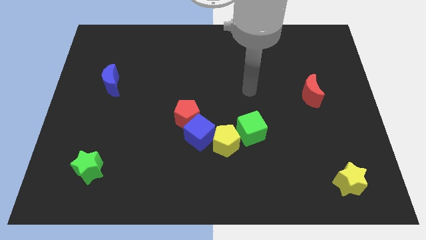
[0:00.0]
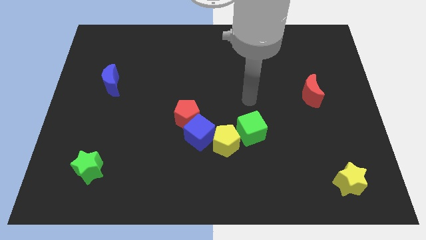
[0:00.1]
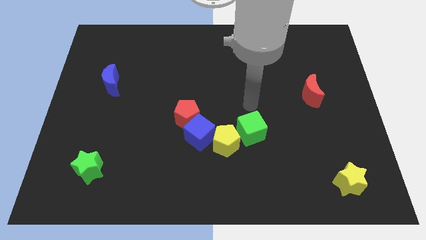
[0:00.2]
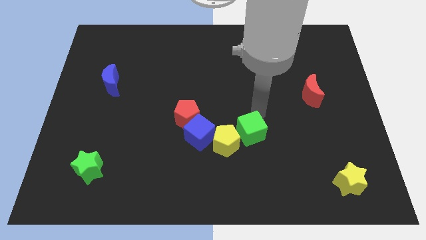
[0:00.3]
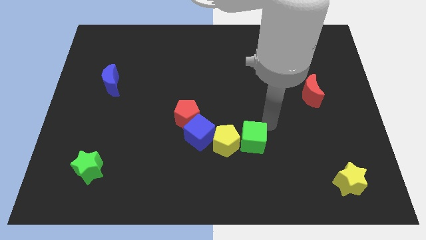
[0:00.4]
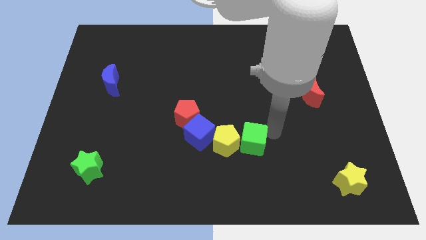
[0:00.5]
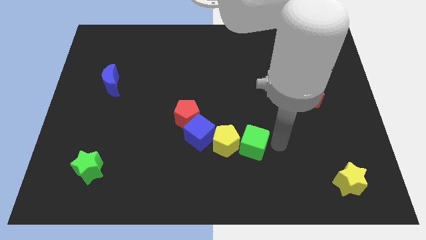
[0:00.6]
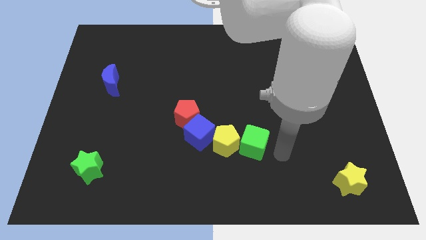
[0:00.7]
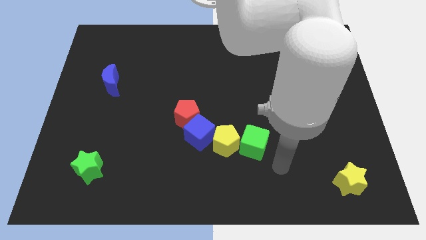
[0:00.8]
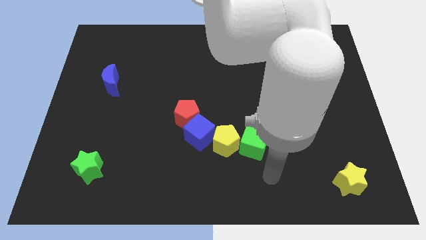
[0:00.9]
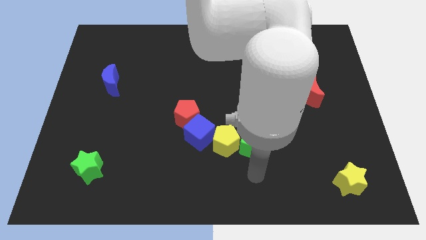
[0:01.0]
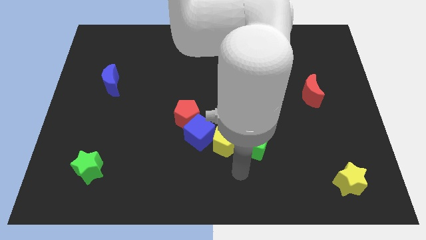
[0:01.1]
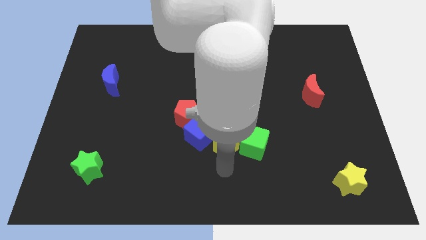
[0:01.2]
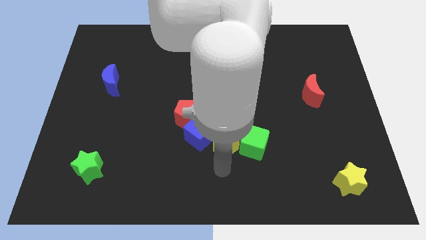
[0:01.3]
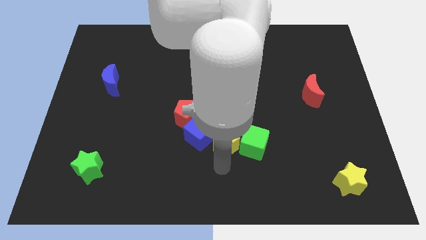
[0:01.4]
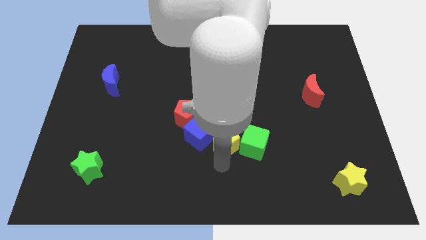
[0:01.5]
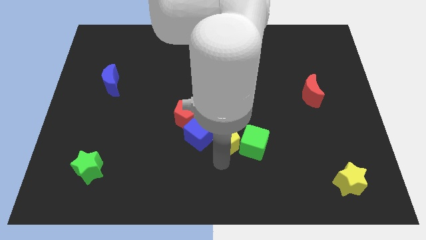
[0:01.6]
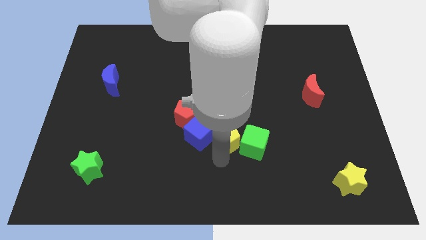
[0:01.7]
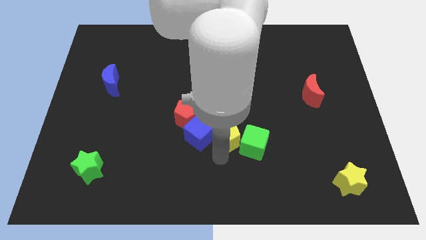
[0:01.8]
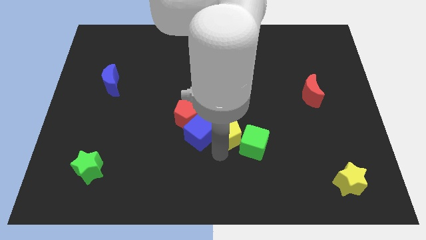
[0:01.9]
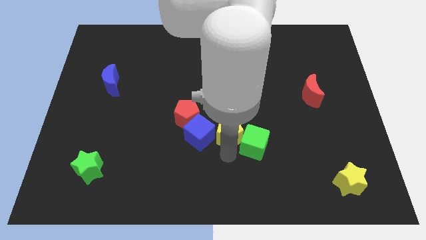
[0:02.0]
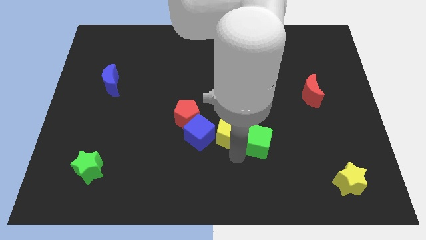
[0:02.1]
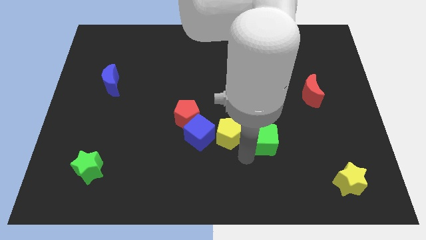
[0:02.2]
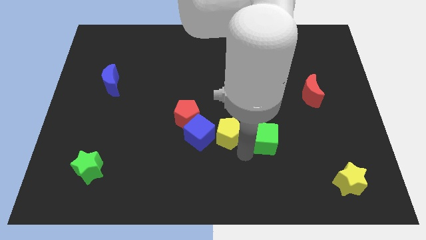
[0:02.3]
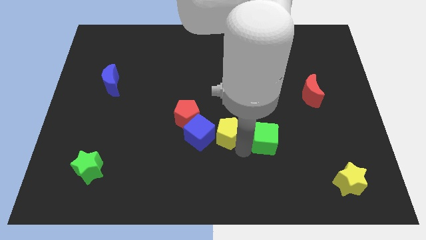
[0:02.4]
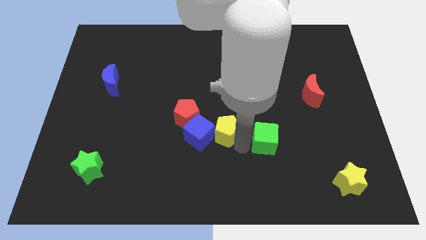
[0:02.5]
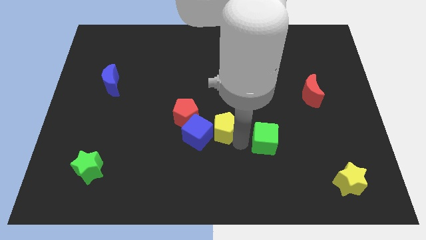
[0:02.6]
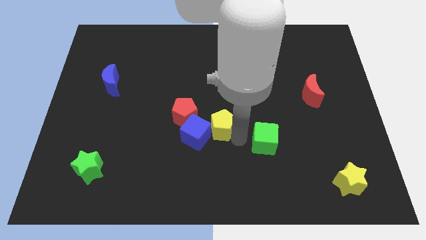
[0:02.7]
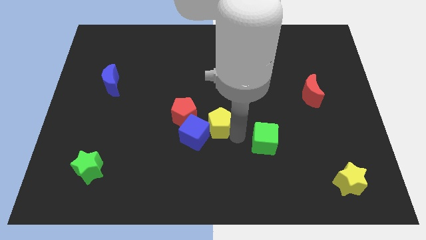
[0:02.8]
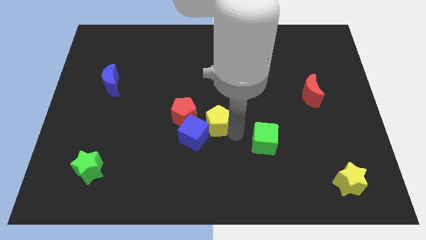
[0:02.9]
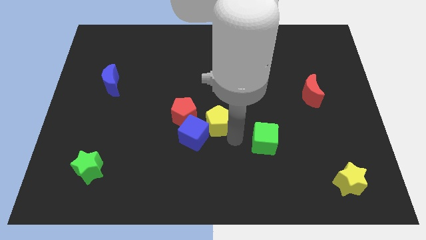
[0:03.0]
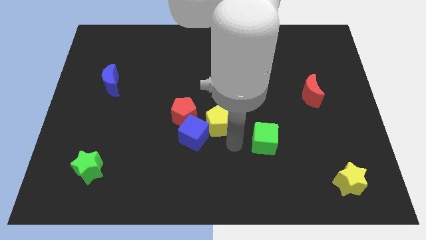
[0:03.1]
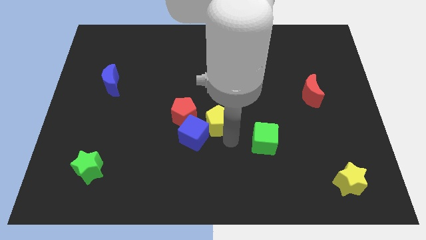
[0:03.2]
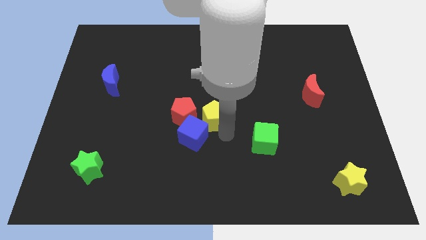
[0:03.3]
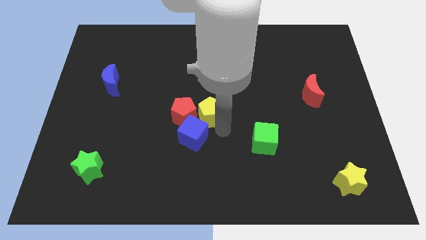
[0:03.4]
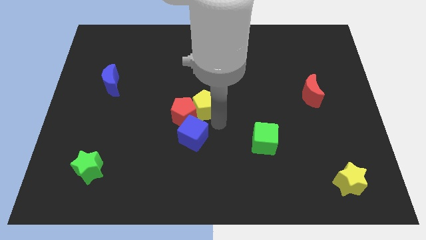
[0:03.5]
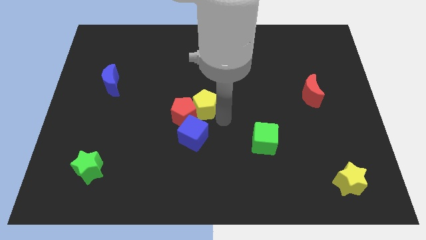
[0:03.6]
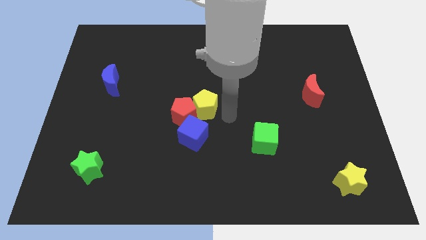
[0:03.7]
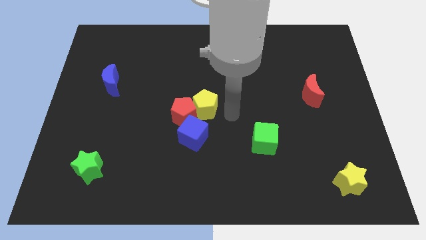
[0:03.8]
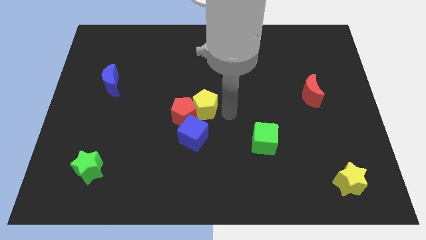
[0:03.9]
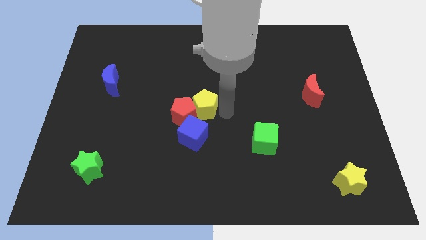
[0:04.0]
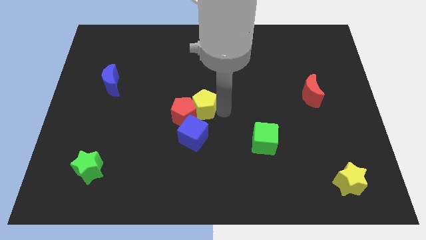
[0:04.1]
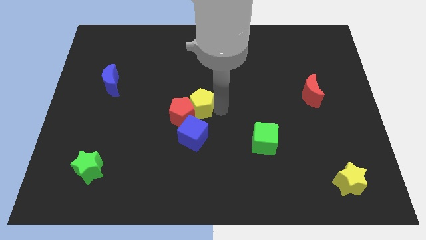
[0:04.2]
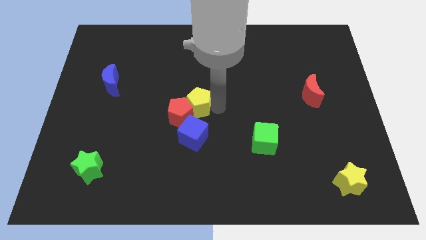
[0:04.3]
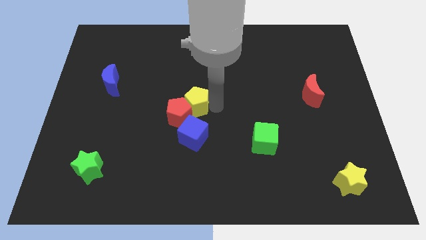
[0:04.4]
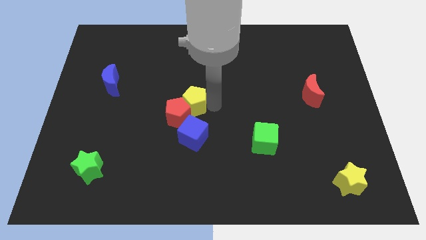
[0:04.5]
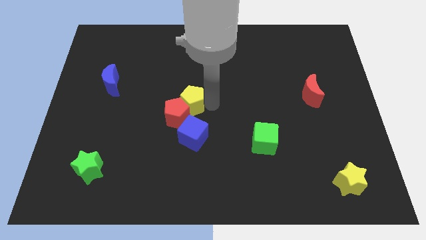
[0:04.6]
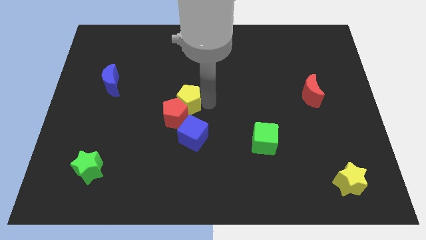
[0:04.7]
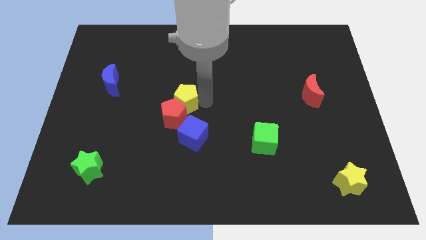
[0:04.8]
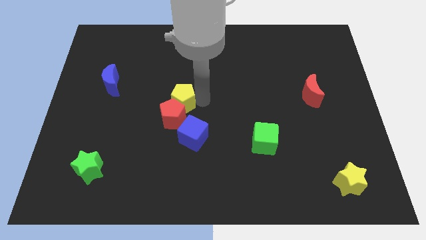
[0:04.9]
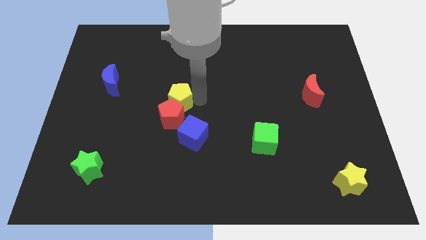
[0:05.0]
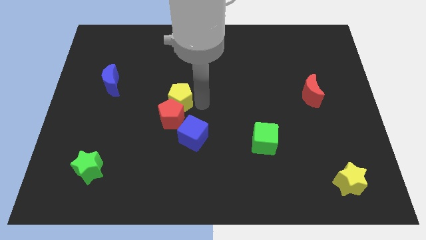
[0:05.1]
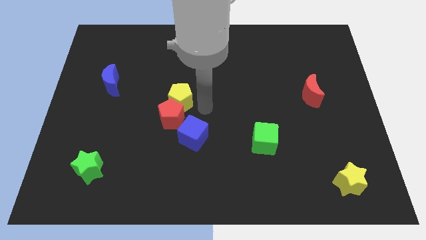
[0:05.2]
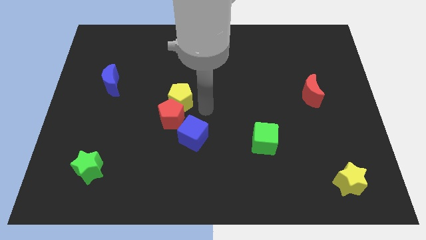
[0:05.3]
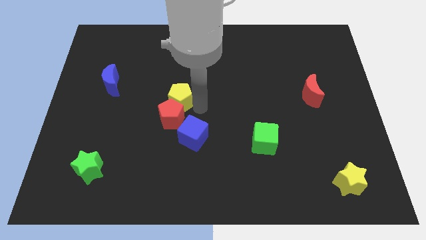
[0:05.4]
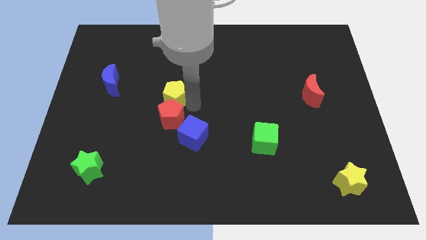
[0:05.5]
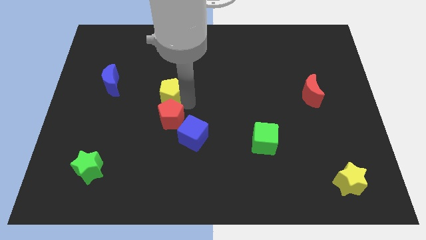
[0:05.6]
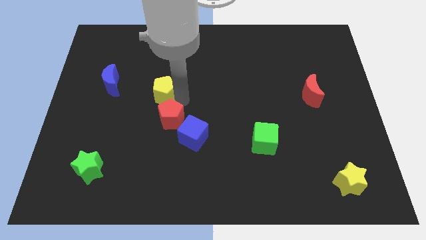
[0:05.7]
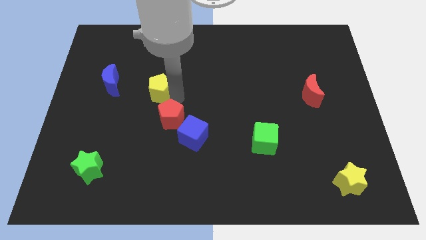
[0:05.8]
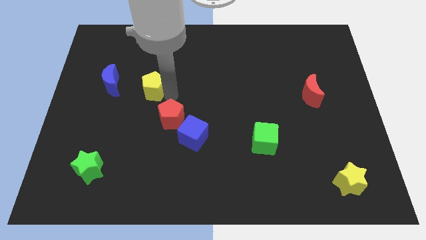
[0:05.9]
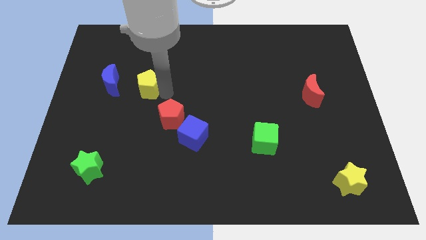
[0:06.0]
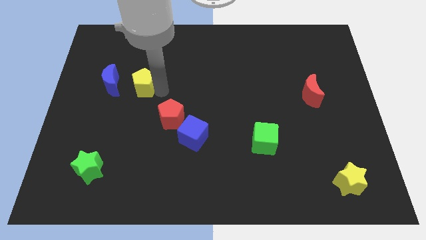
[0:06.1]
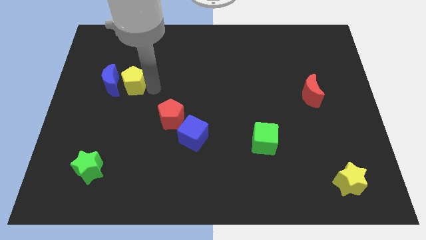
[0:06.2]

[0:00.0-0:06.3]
put the yellow pentagon towards the blue moon
